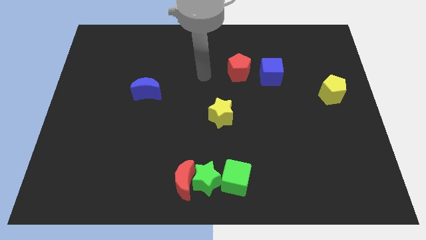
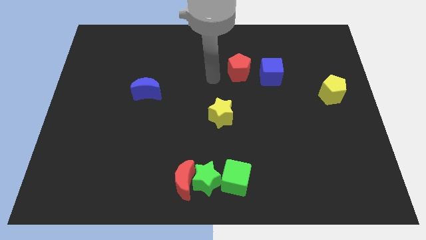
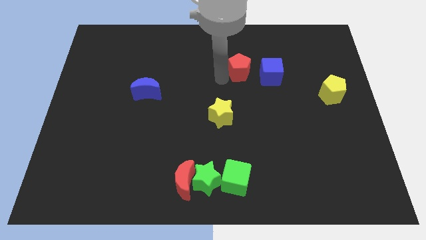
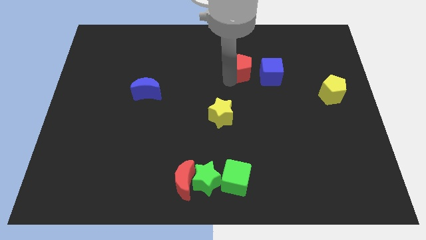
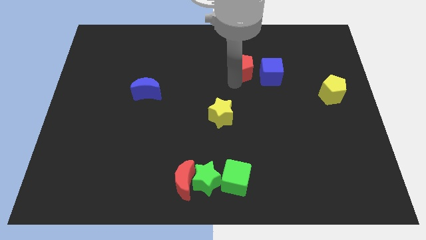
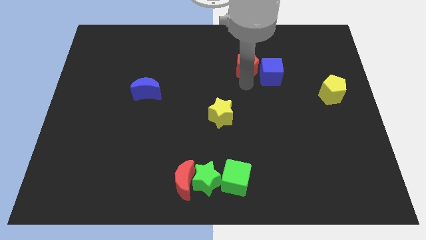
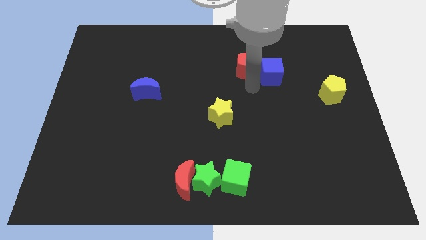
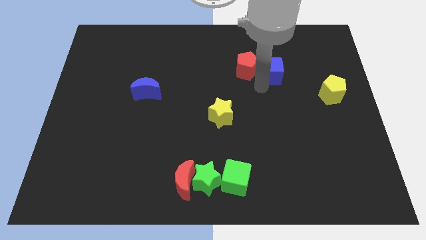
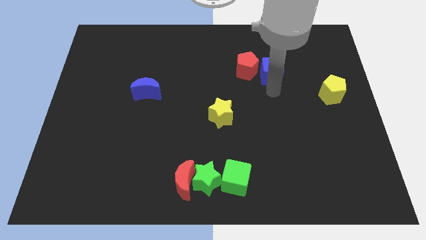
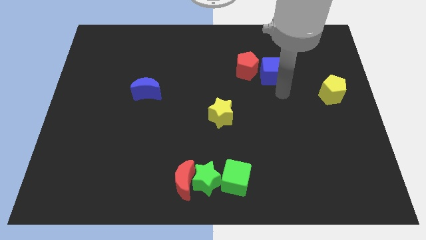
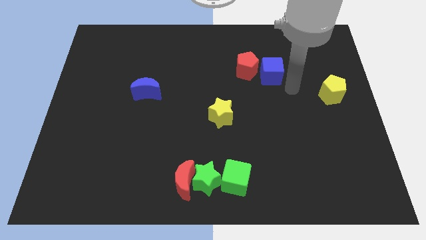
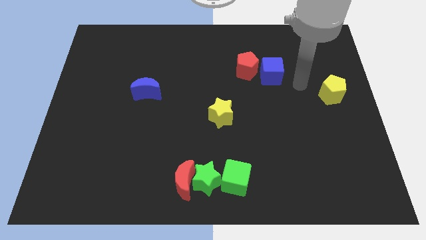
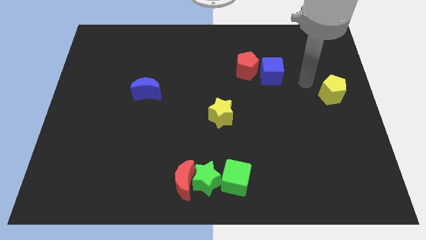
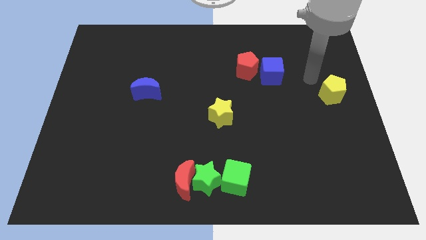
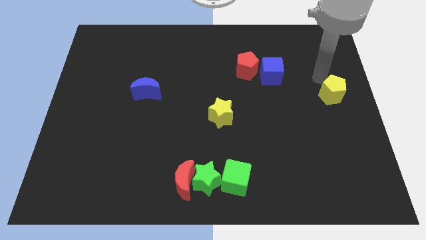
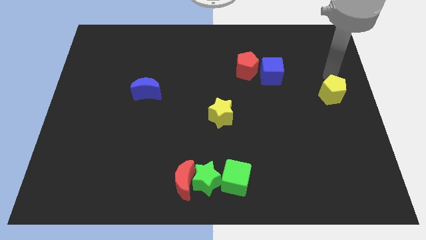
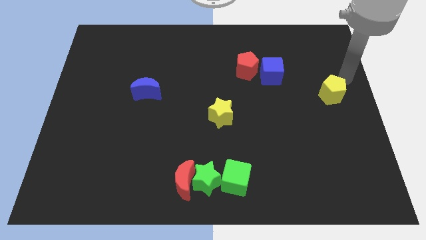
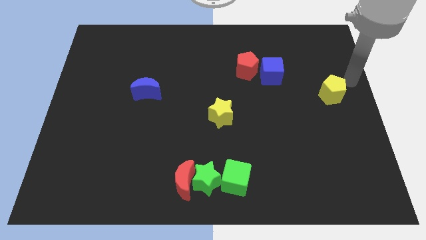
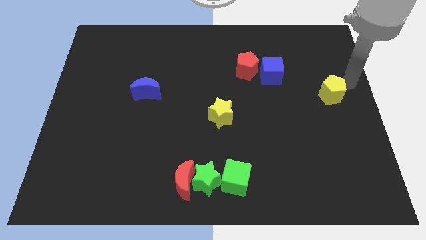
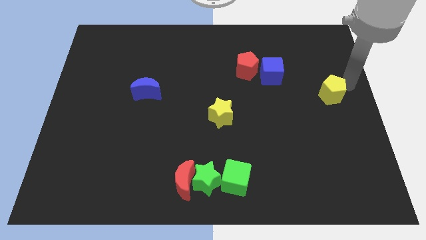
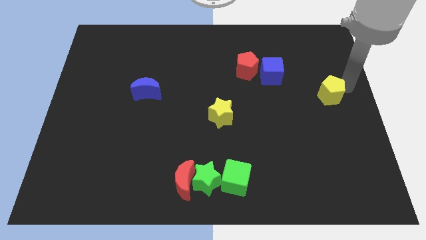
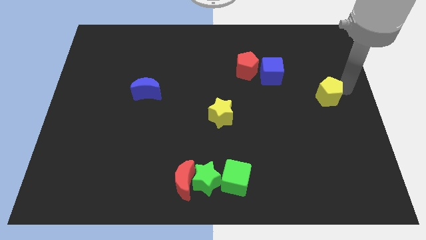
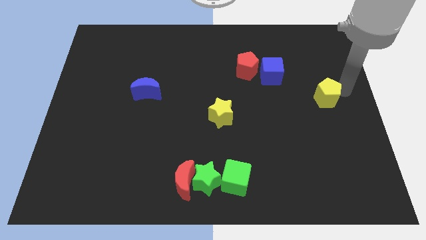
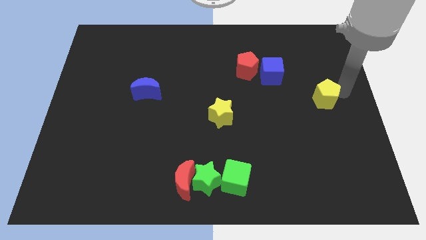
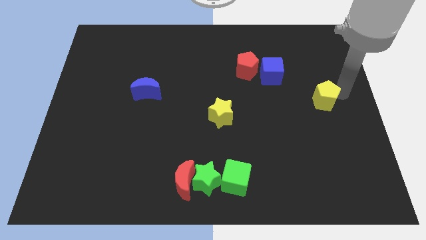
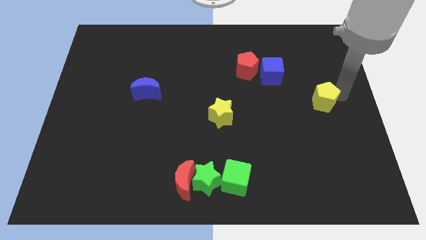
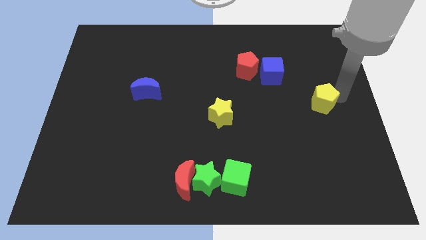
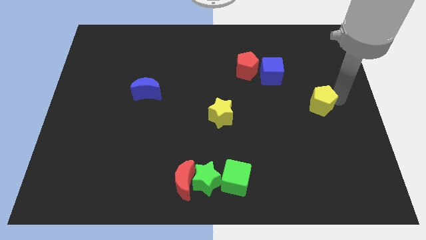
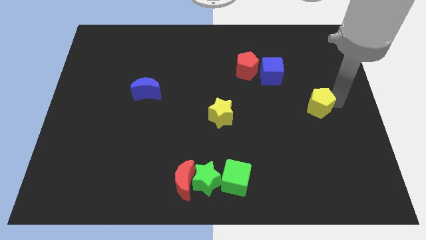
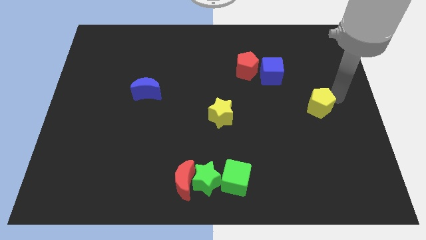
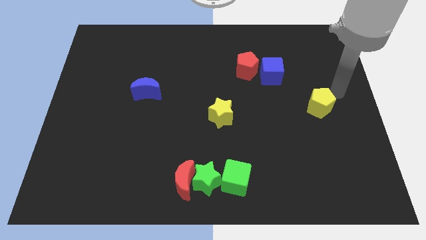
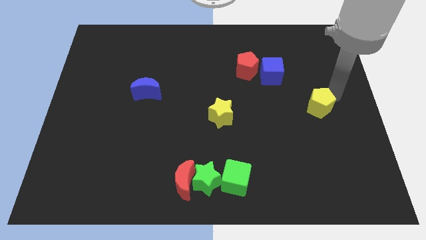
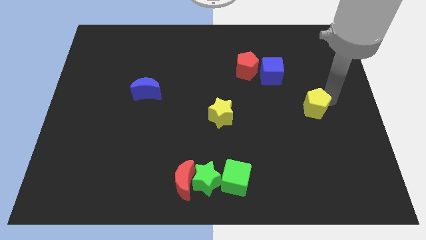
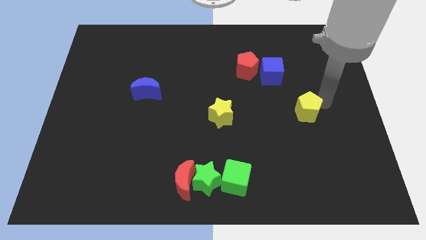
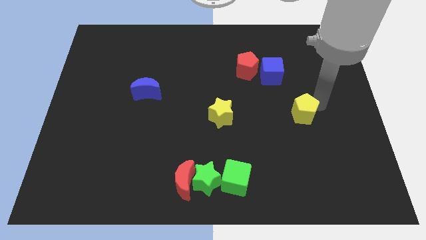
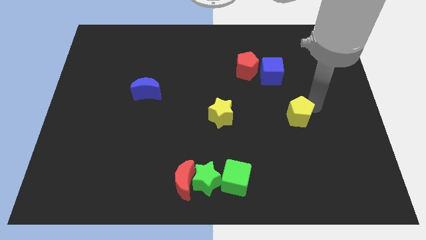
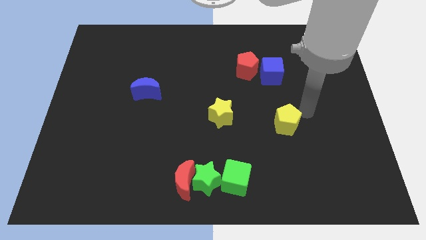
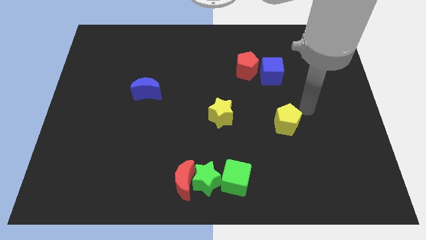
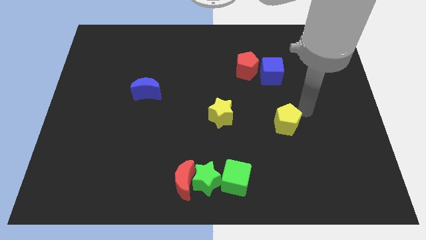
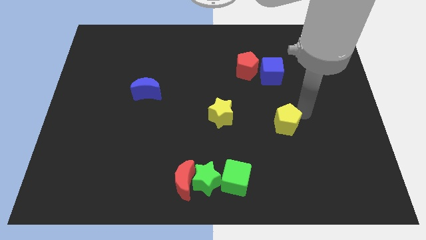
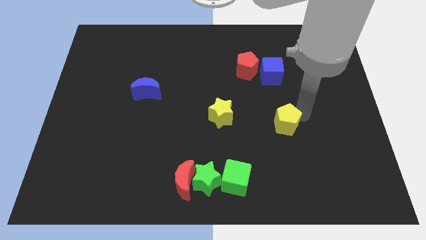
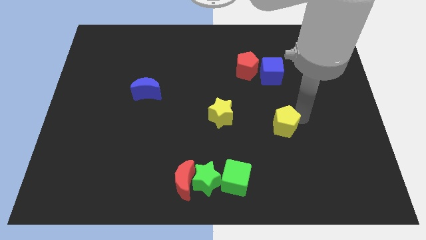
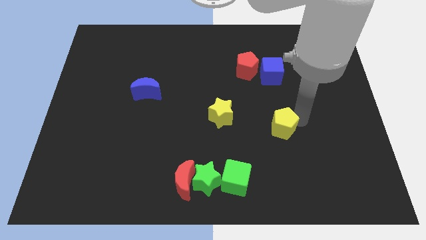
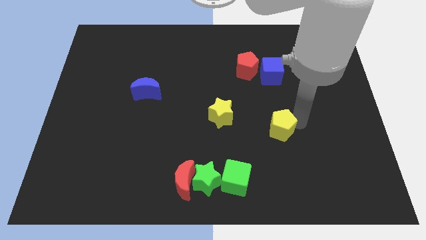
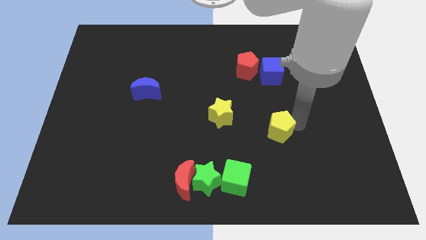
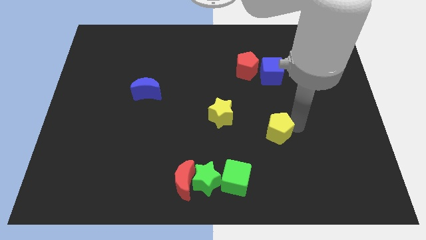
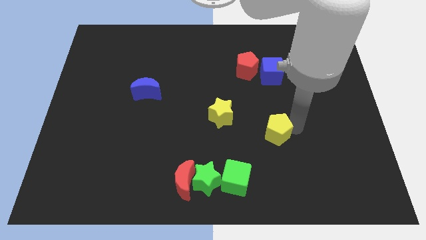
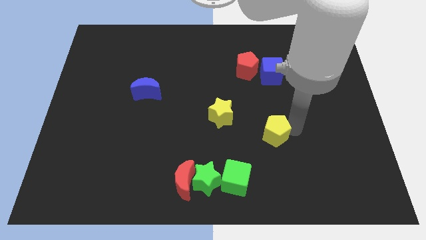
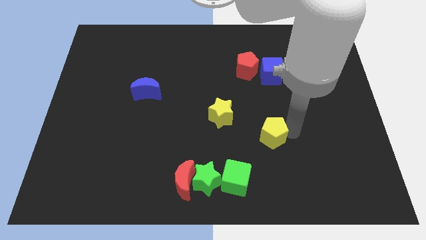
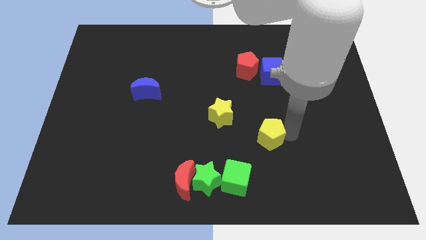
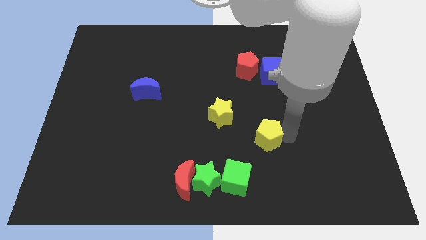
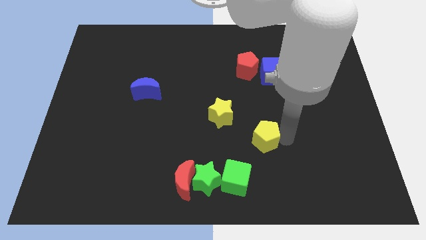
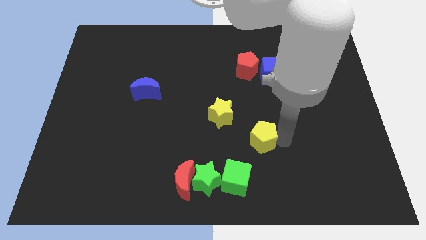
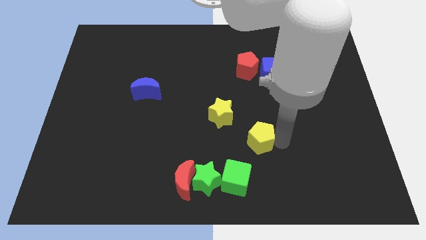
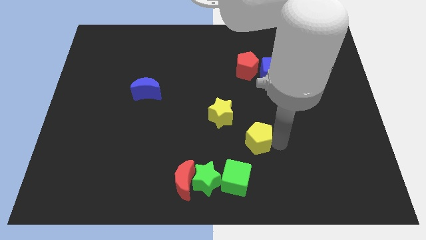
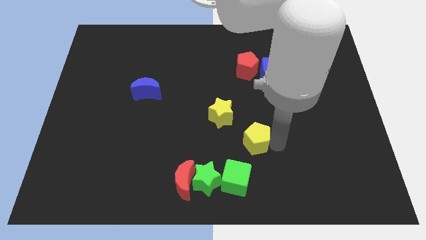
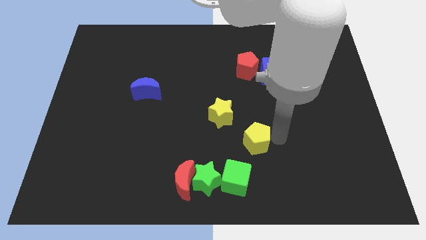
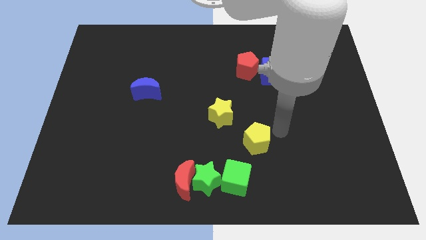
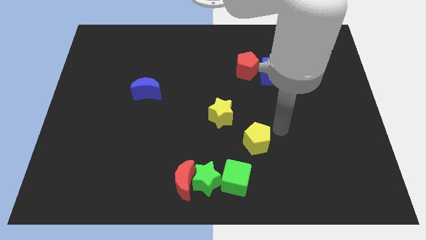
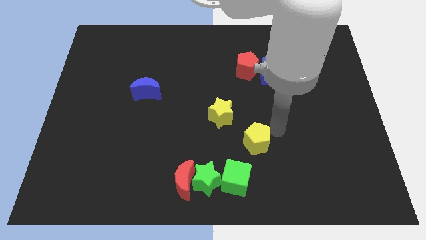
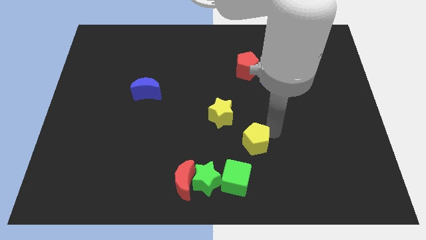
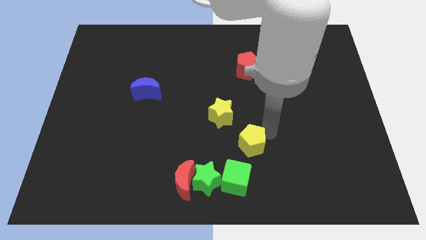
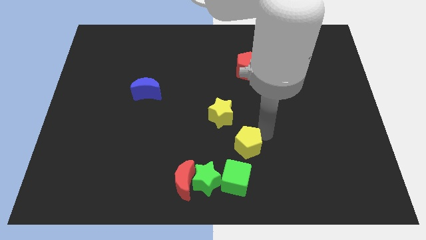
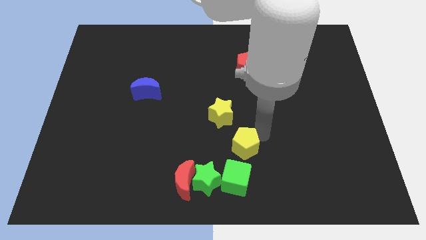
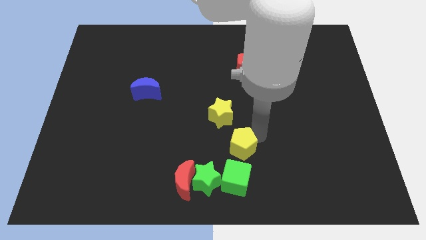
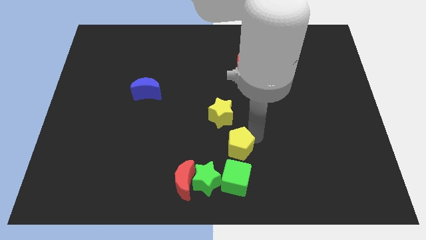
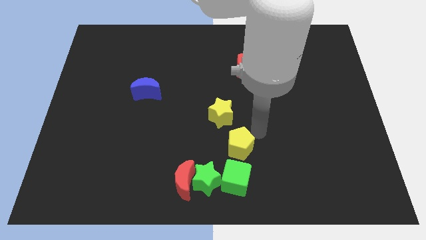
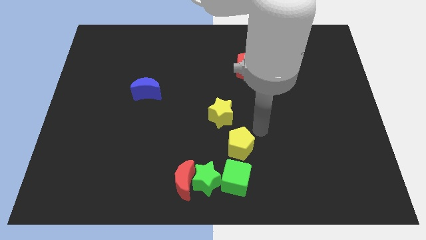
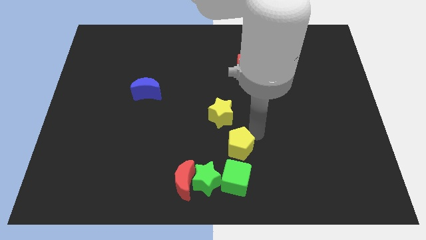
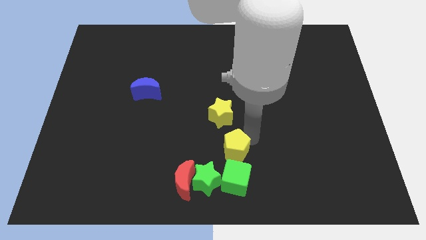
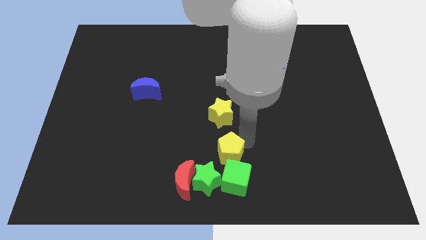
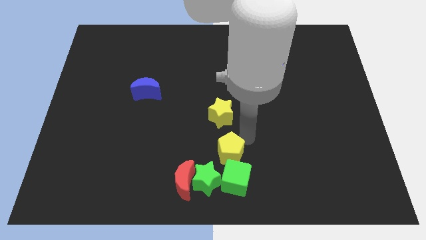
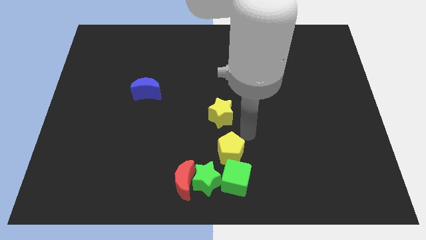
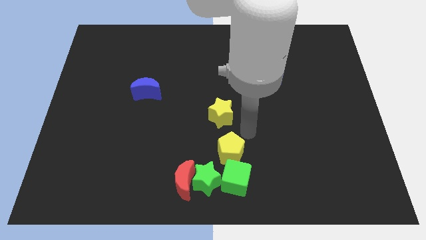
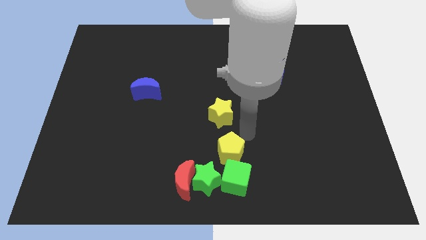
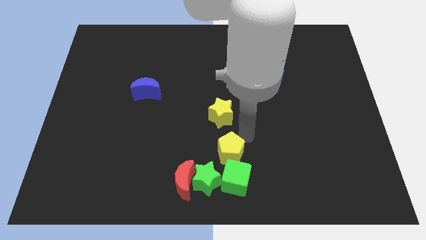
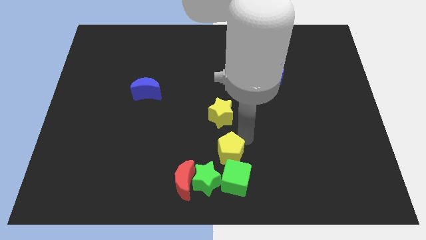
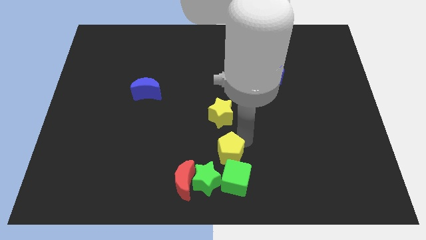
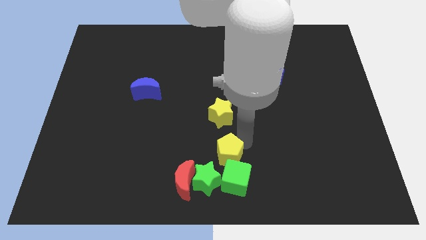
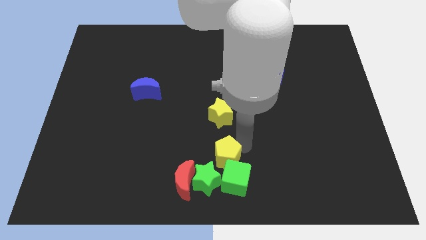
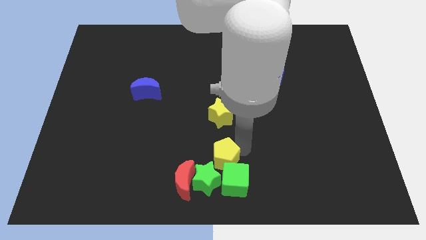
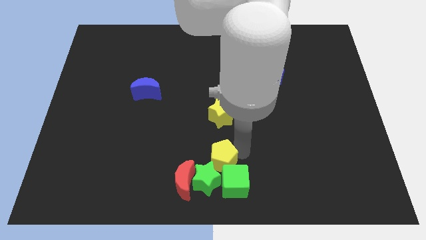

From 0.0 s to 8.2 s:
push the yellow pentagon close to the green star
